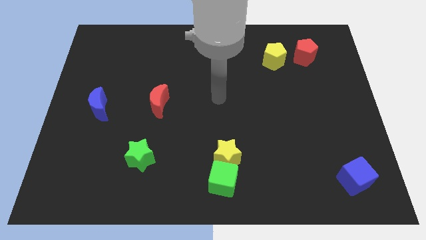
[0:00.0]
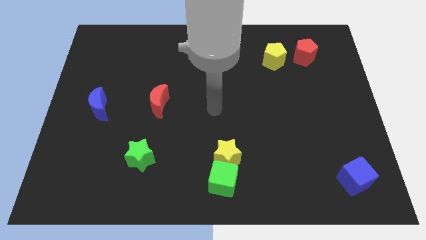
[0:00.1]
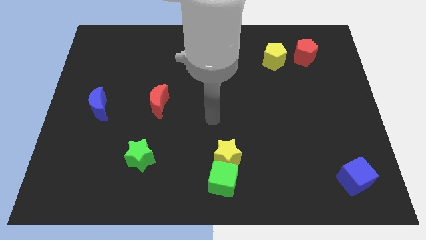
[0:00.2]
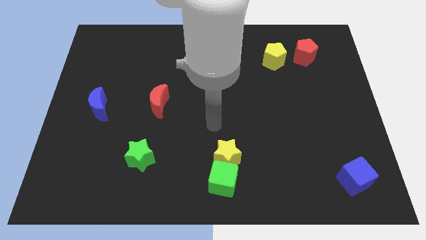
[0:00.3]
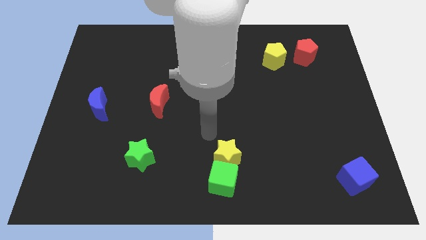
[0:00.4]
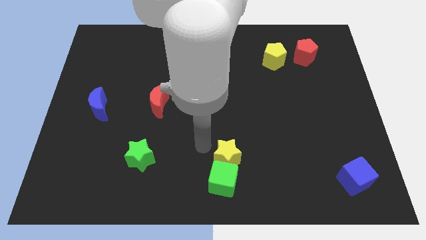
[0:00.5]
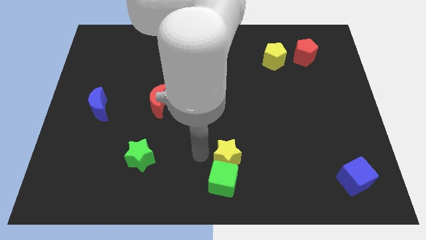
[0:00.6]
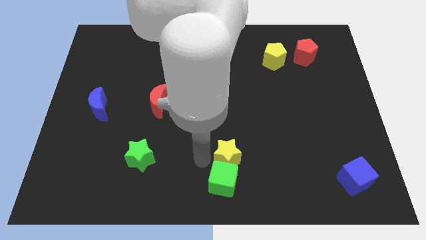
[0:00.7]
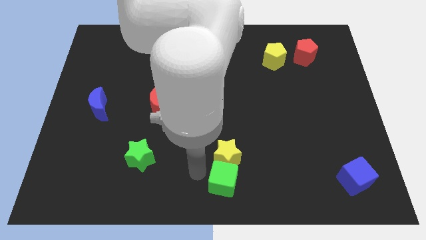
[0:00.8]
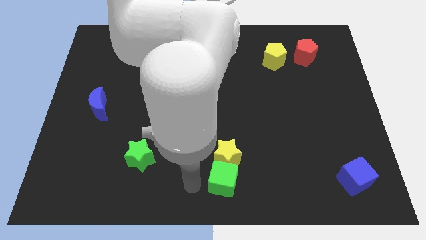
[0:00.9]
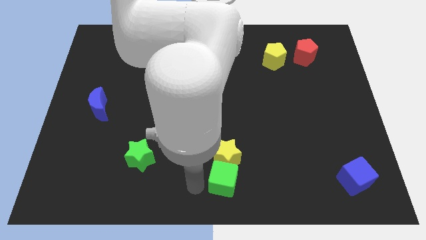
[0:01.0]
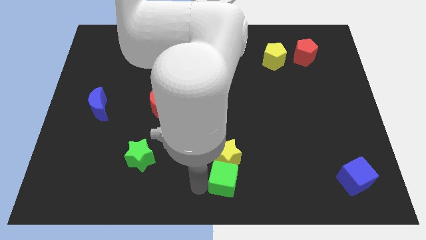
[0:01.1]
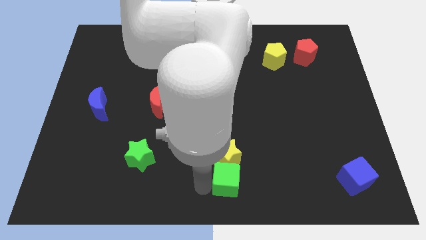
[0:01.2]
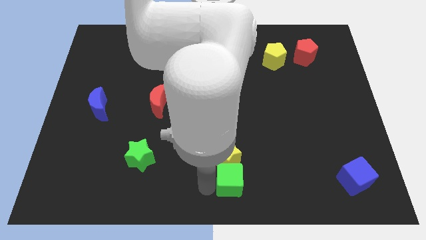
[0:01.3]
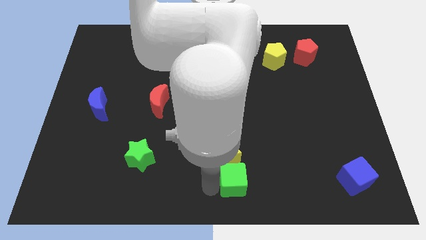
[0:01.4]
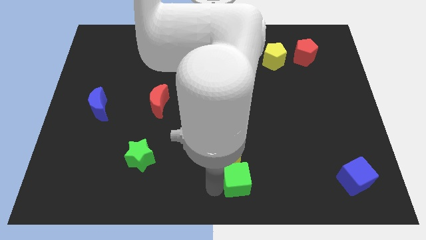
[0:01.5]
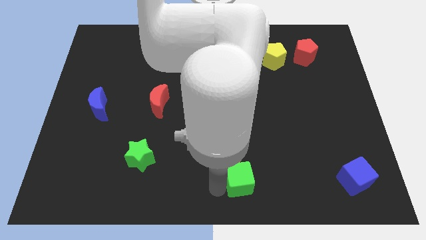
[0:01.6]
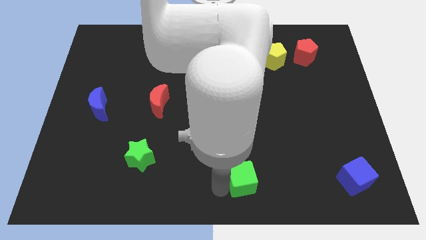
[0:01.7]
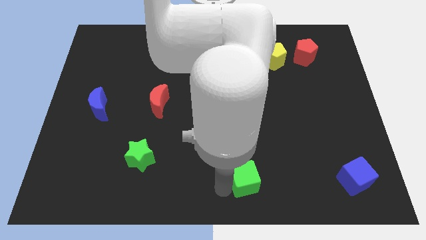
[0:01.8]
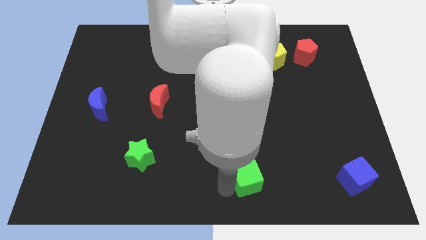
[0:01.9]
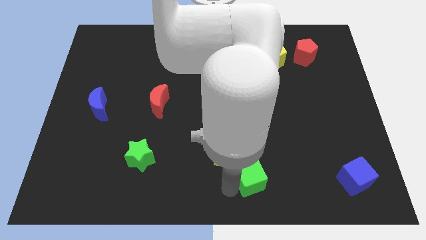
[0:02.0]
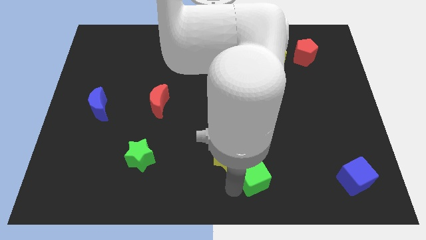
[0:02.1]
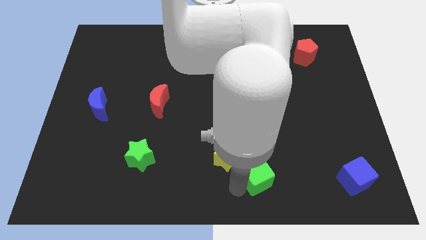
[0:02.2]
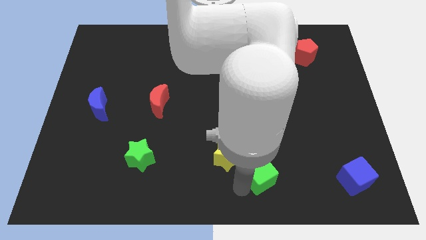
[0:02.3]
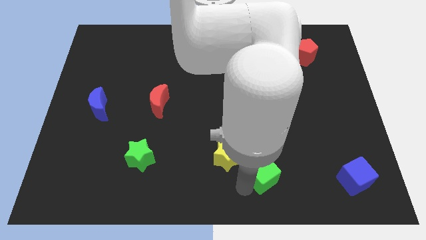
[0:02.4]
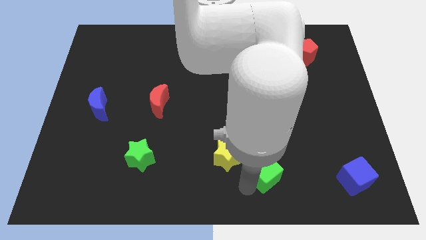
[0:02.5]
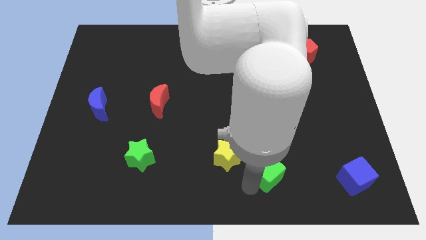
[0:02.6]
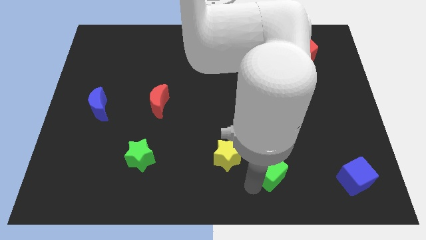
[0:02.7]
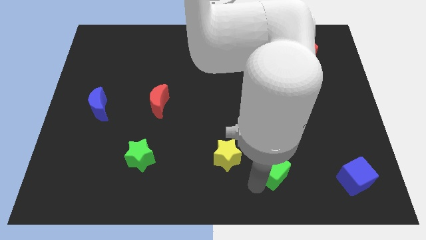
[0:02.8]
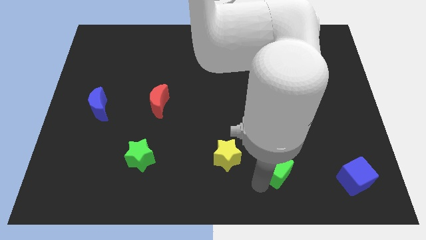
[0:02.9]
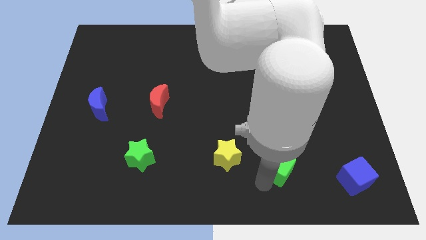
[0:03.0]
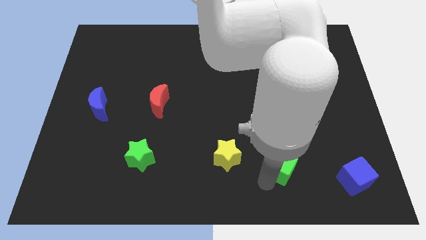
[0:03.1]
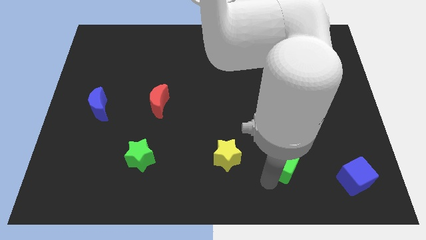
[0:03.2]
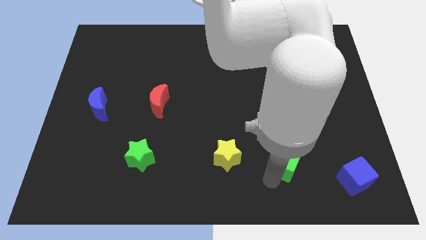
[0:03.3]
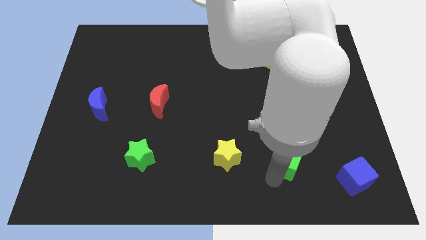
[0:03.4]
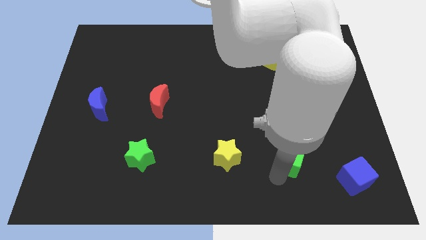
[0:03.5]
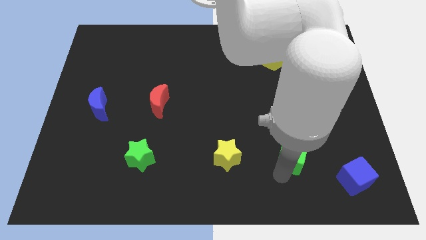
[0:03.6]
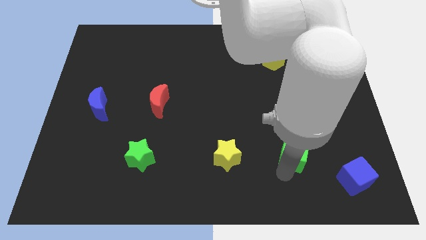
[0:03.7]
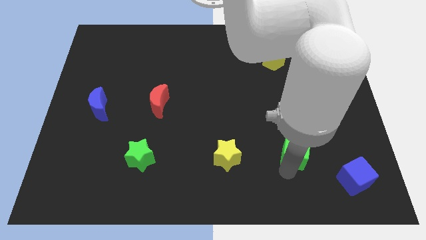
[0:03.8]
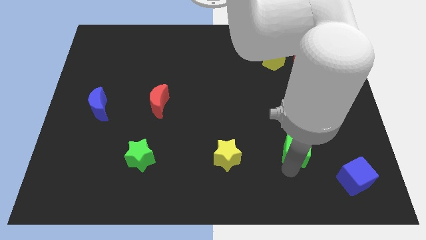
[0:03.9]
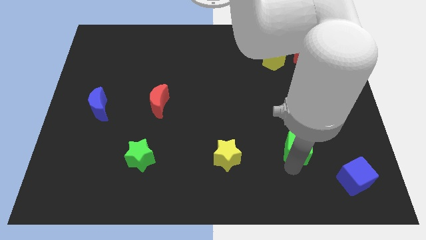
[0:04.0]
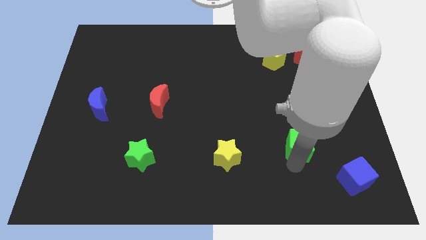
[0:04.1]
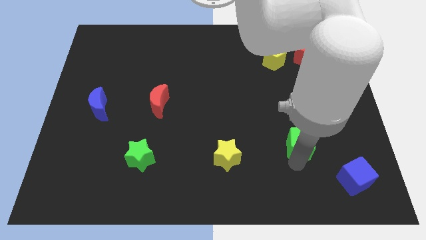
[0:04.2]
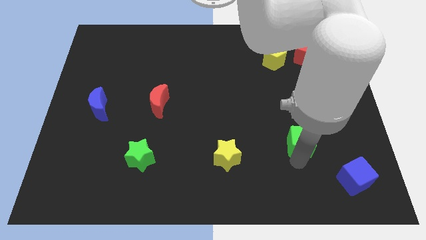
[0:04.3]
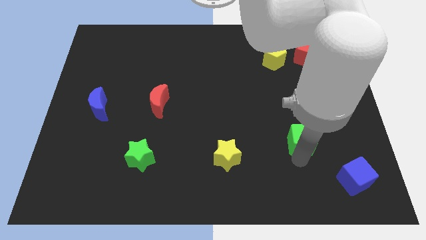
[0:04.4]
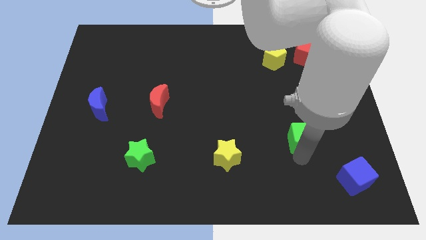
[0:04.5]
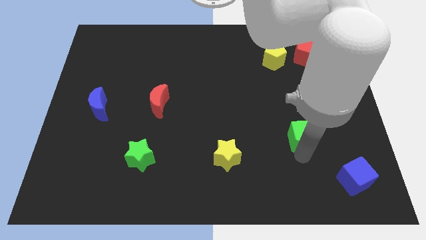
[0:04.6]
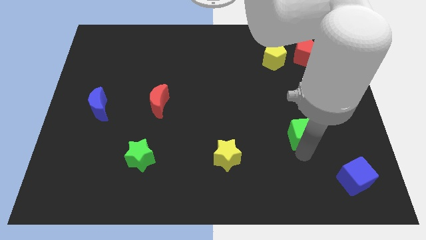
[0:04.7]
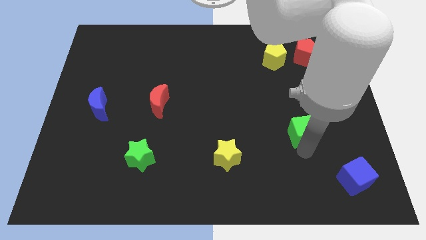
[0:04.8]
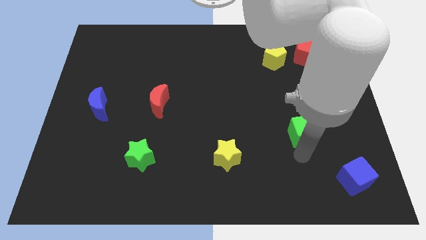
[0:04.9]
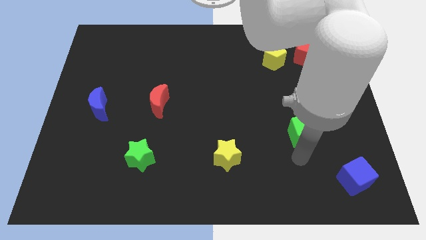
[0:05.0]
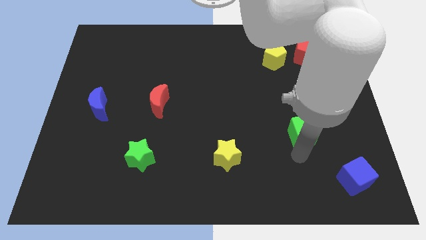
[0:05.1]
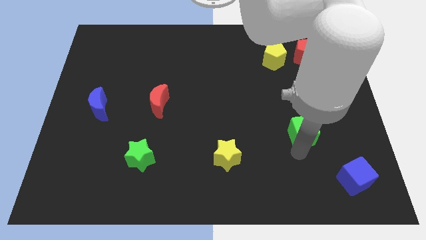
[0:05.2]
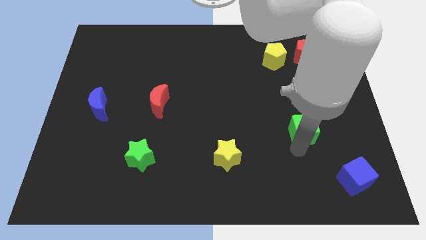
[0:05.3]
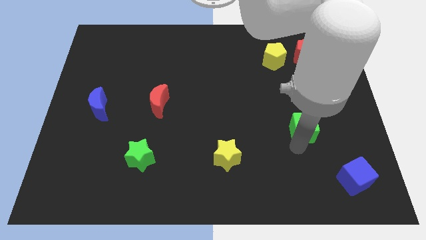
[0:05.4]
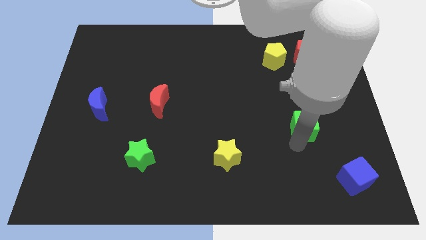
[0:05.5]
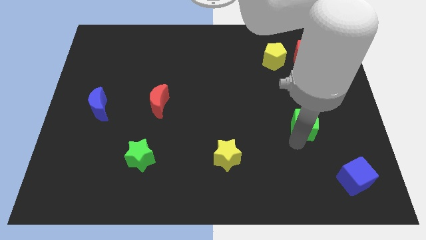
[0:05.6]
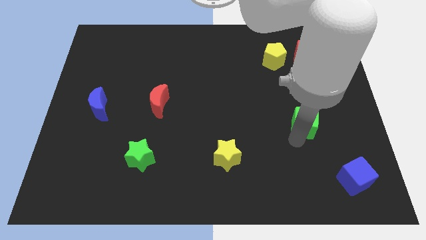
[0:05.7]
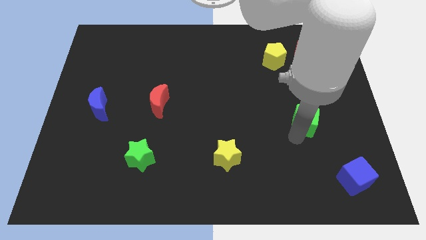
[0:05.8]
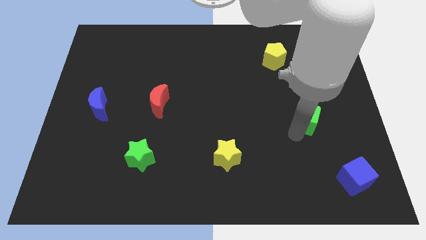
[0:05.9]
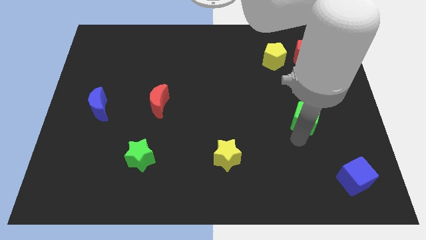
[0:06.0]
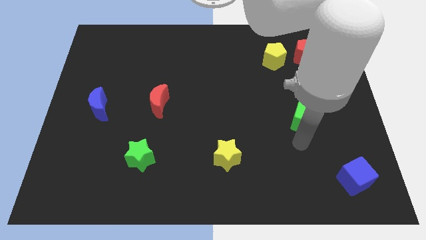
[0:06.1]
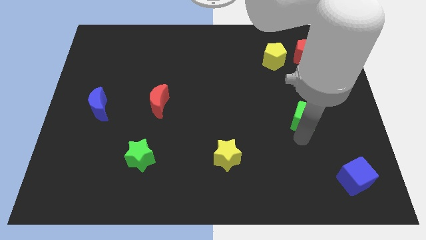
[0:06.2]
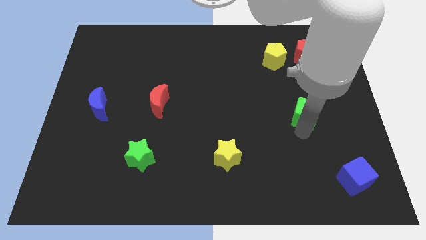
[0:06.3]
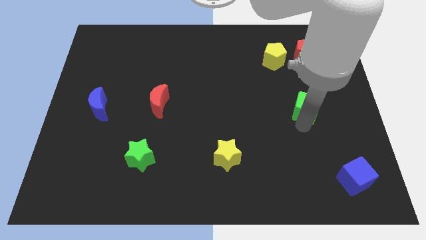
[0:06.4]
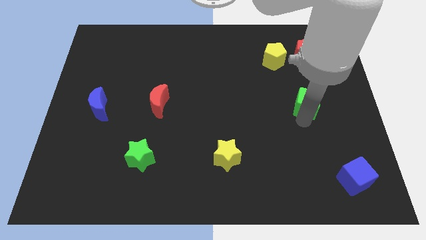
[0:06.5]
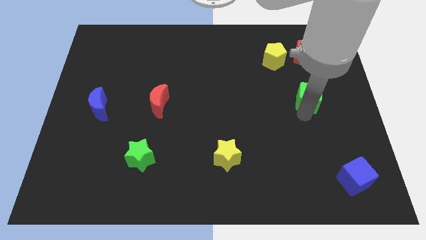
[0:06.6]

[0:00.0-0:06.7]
move the green cube to the bottom of the red pentagon
